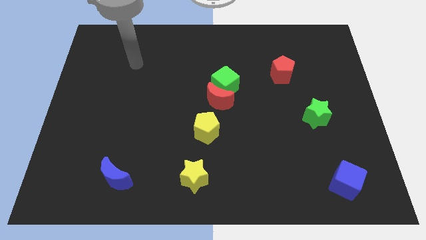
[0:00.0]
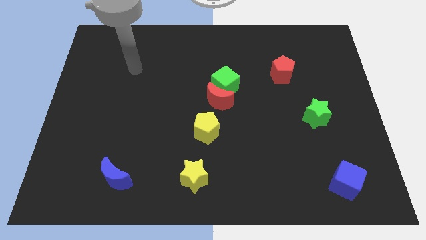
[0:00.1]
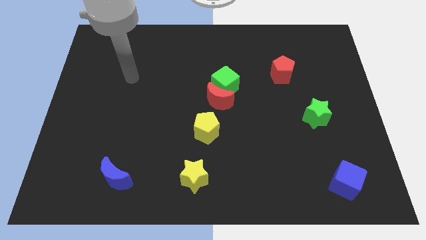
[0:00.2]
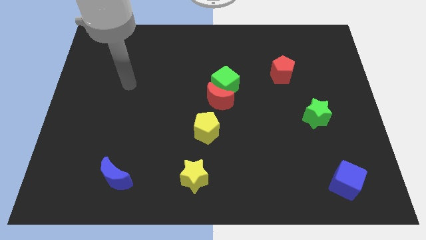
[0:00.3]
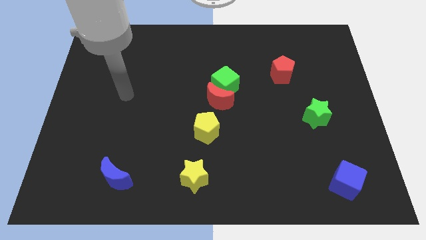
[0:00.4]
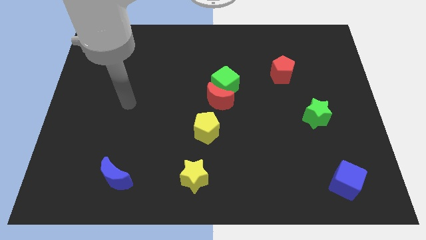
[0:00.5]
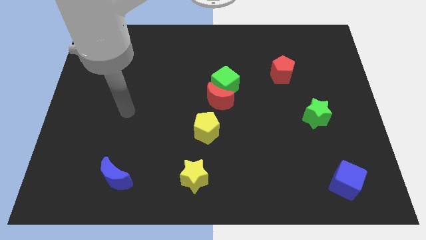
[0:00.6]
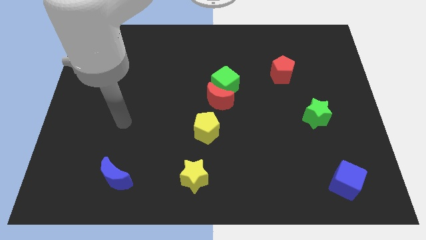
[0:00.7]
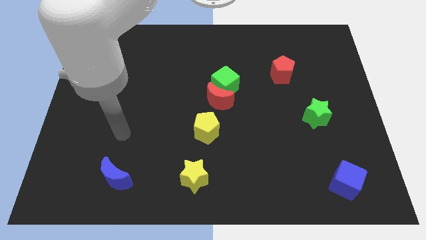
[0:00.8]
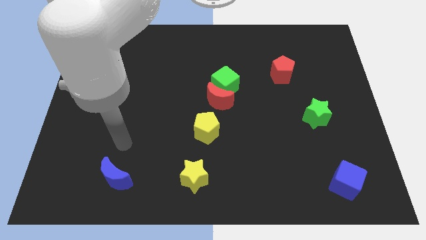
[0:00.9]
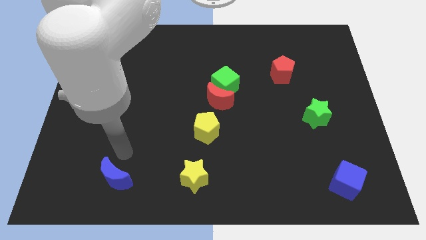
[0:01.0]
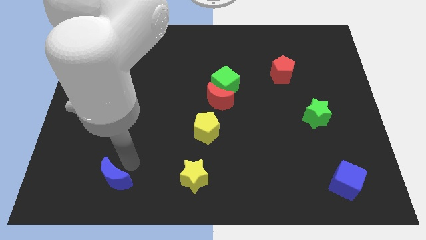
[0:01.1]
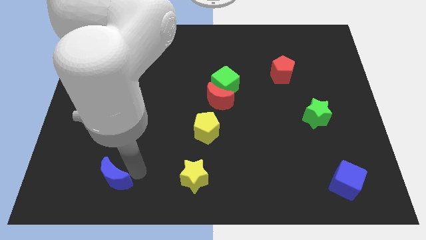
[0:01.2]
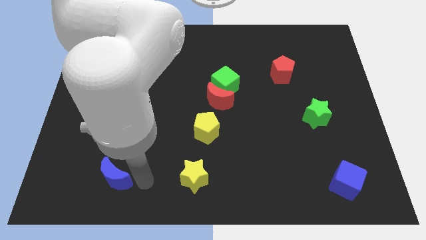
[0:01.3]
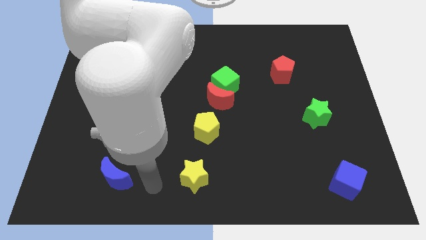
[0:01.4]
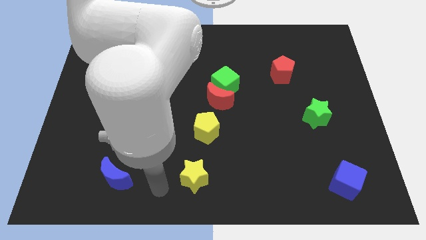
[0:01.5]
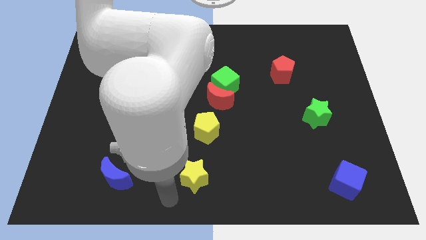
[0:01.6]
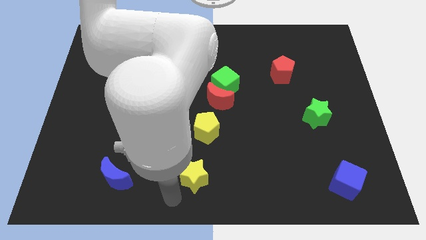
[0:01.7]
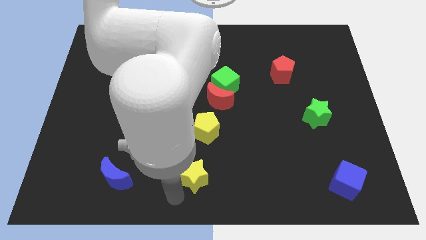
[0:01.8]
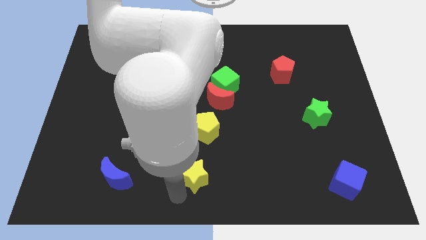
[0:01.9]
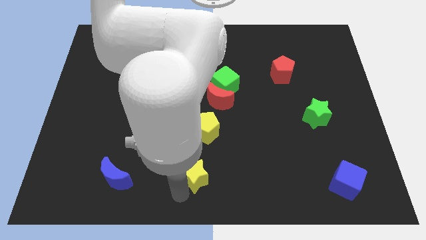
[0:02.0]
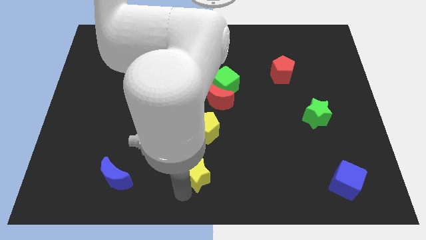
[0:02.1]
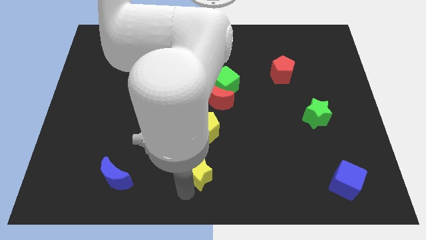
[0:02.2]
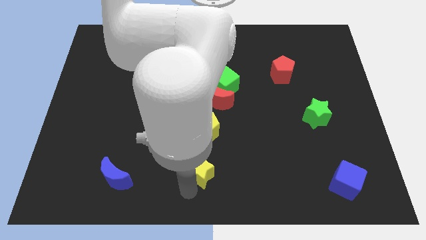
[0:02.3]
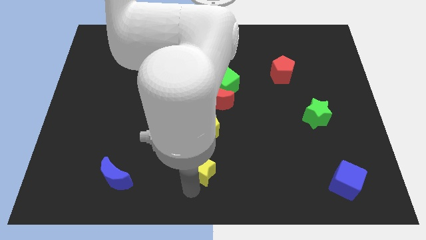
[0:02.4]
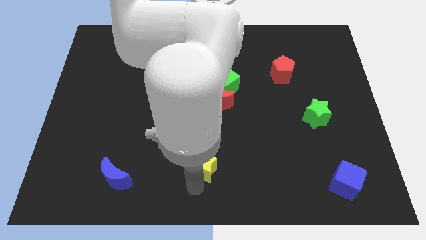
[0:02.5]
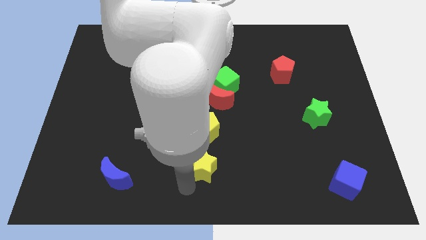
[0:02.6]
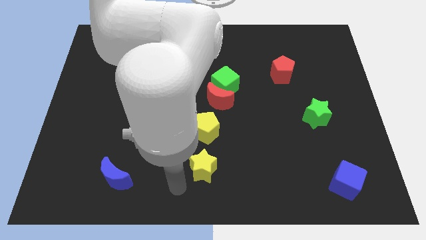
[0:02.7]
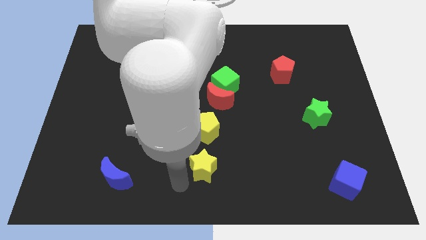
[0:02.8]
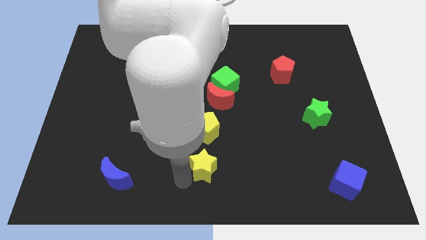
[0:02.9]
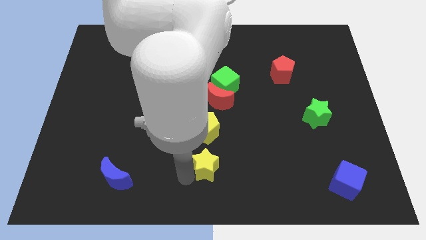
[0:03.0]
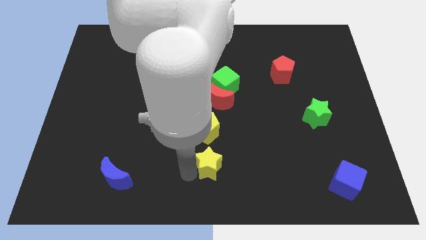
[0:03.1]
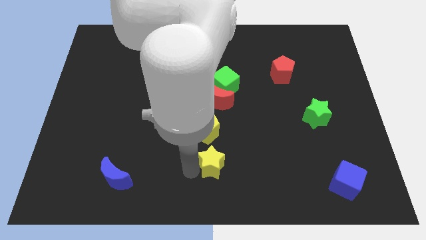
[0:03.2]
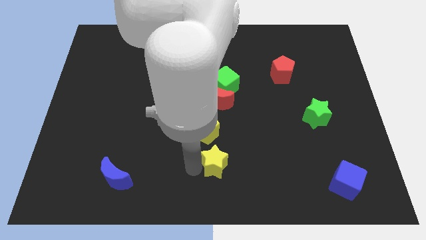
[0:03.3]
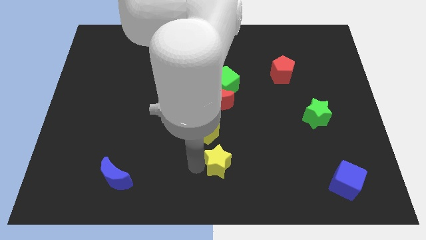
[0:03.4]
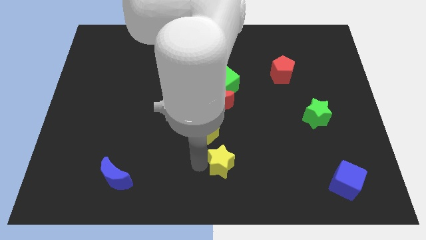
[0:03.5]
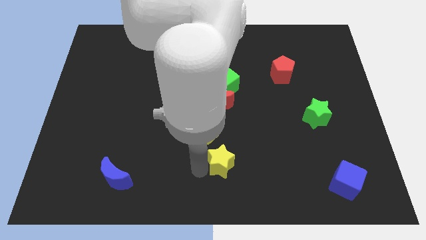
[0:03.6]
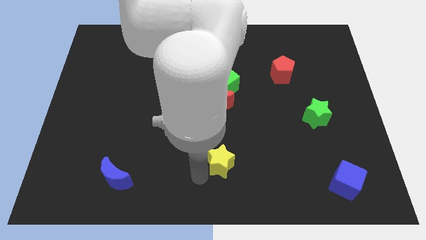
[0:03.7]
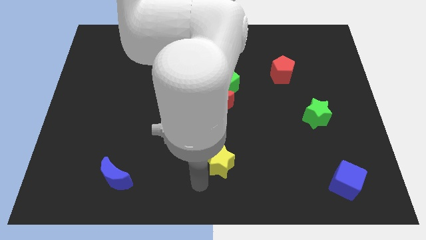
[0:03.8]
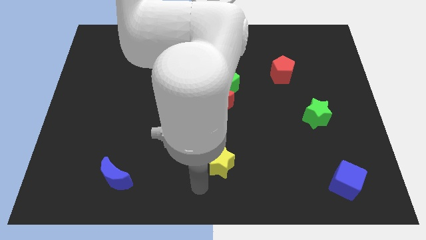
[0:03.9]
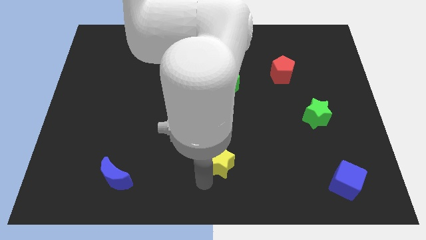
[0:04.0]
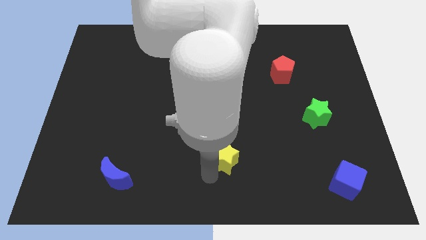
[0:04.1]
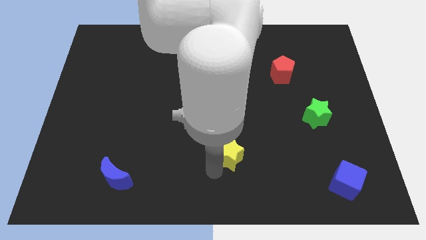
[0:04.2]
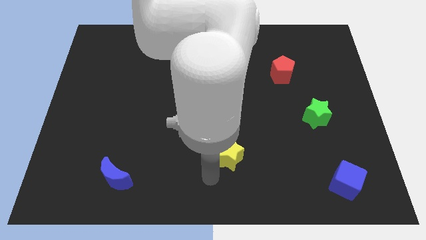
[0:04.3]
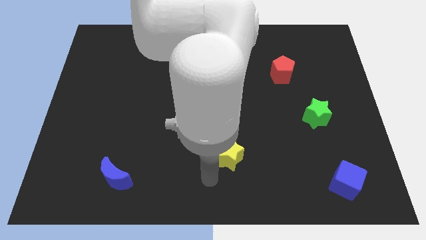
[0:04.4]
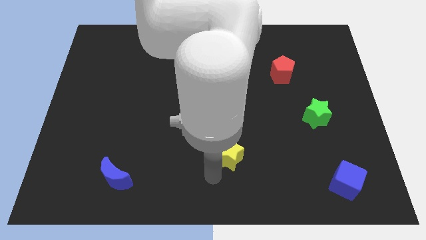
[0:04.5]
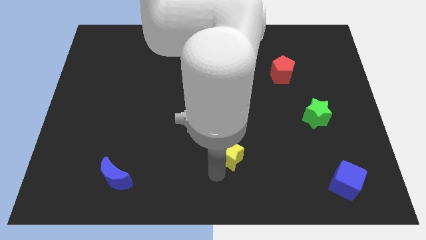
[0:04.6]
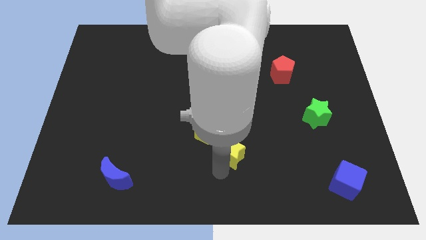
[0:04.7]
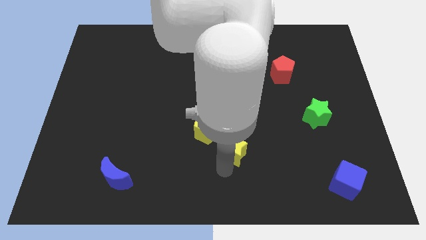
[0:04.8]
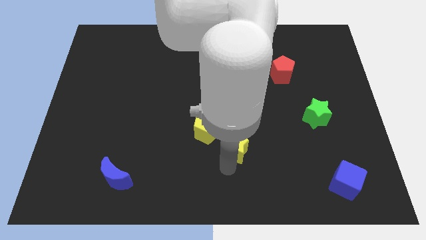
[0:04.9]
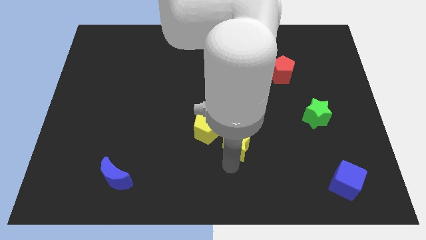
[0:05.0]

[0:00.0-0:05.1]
push the yellow star just right of the yellow pentagon

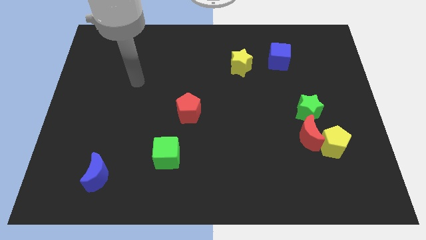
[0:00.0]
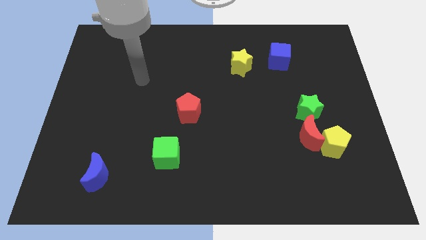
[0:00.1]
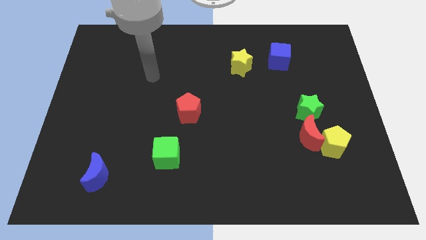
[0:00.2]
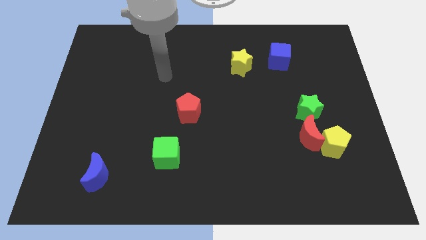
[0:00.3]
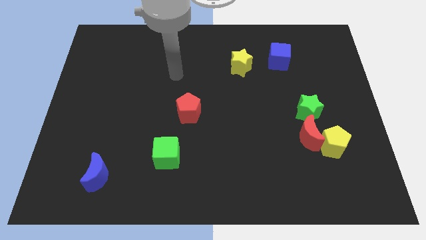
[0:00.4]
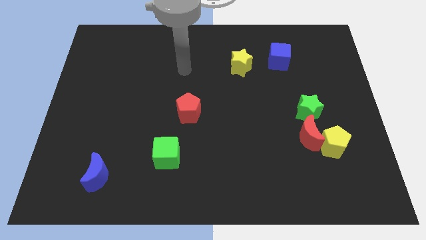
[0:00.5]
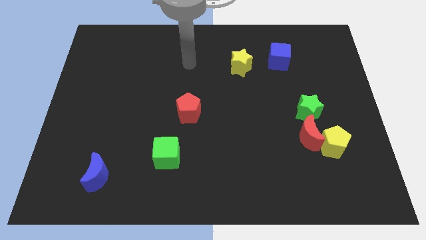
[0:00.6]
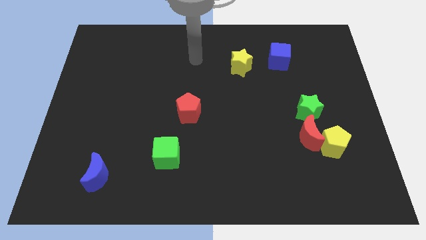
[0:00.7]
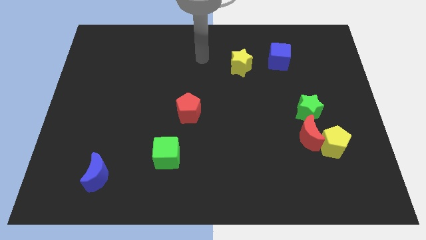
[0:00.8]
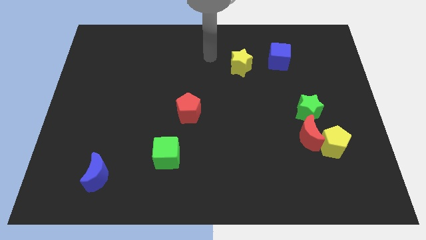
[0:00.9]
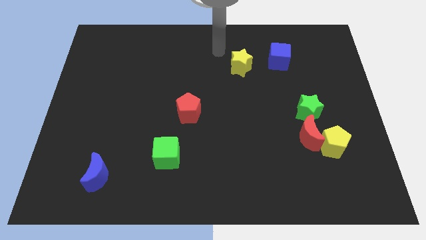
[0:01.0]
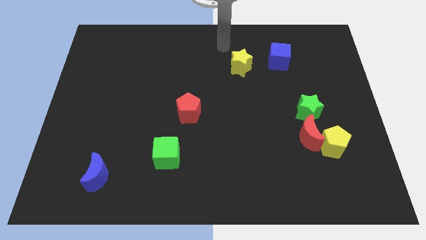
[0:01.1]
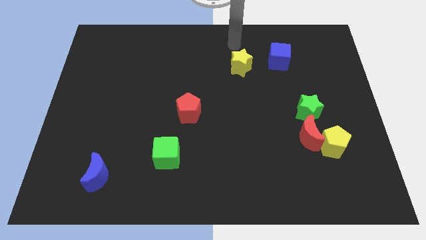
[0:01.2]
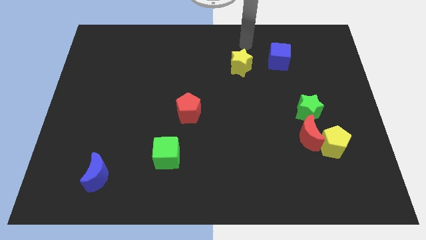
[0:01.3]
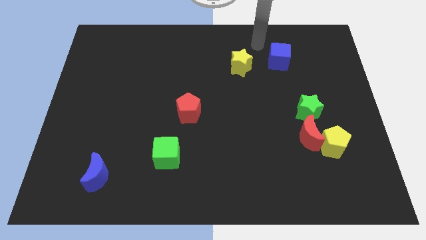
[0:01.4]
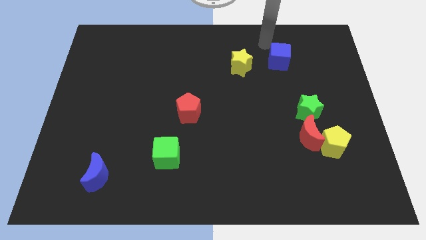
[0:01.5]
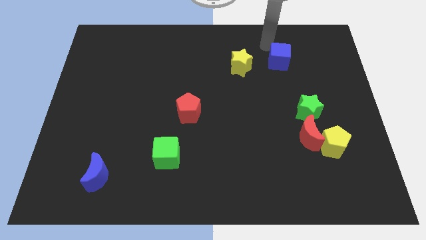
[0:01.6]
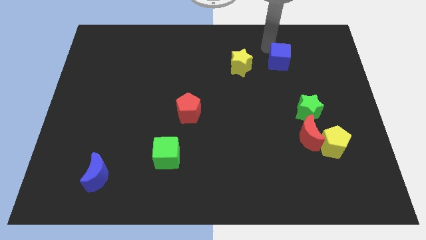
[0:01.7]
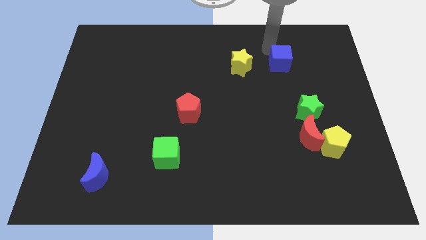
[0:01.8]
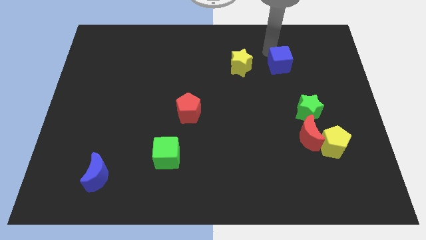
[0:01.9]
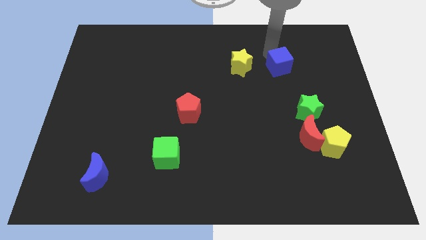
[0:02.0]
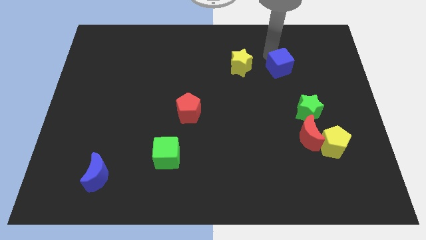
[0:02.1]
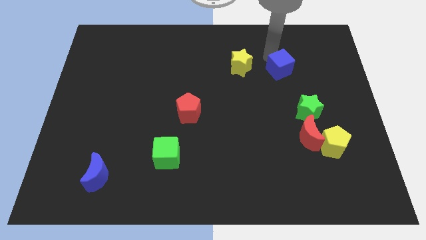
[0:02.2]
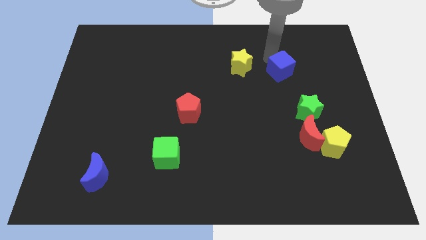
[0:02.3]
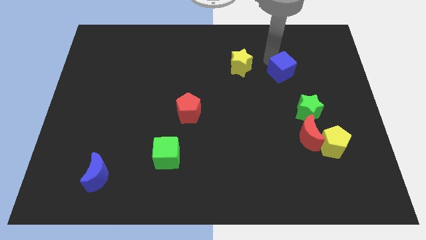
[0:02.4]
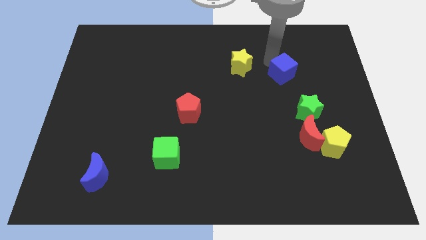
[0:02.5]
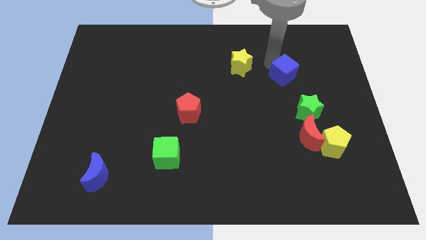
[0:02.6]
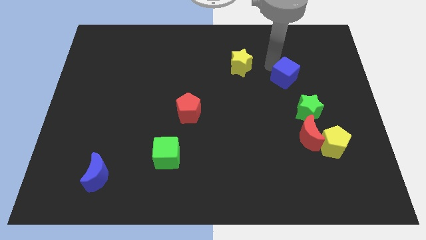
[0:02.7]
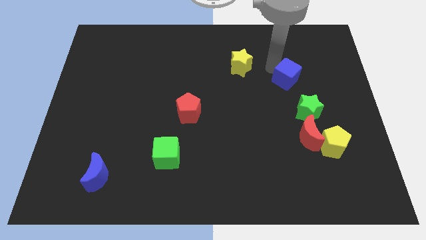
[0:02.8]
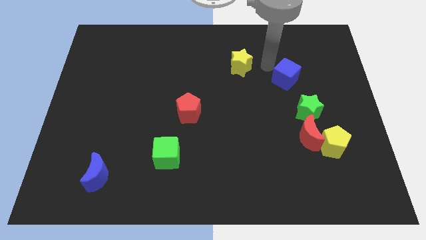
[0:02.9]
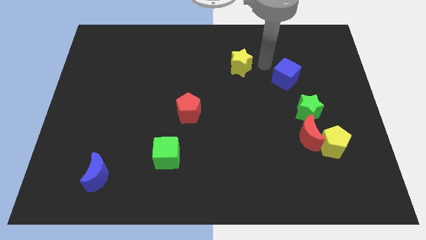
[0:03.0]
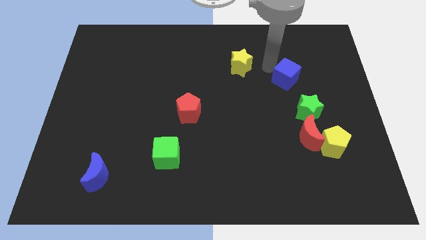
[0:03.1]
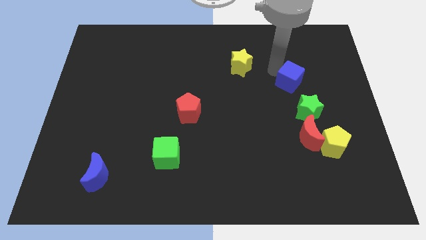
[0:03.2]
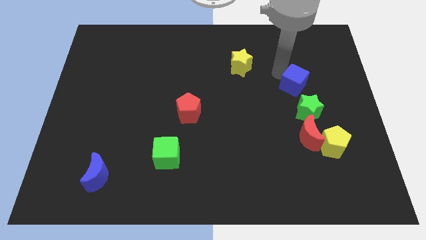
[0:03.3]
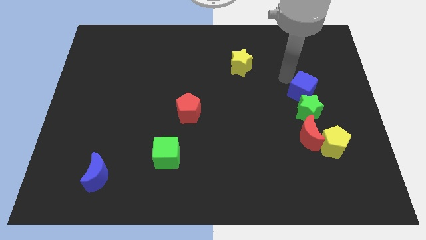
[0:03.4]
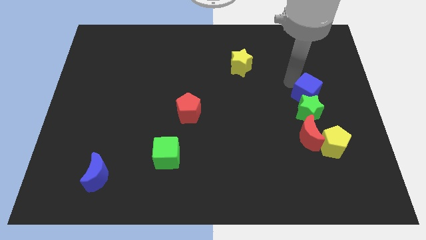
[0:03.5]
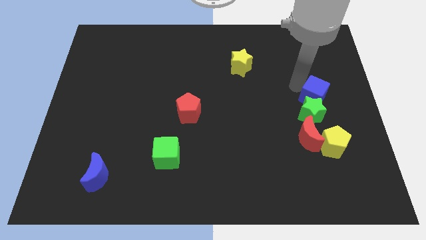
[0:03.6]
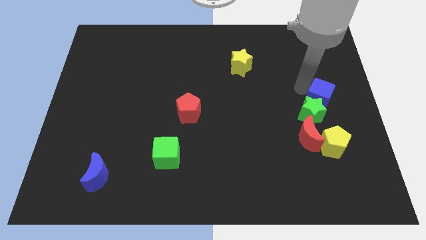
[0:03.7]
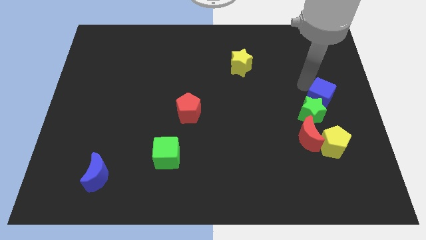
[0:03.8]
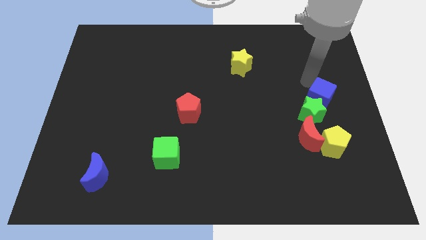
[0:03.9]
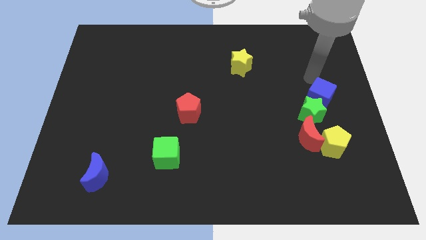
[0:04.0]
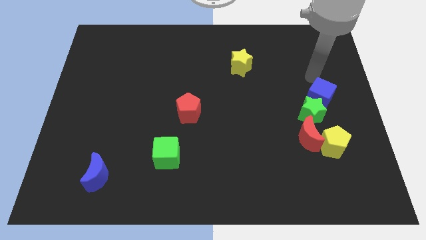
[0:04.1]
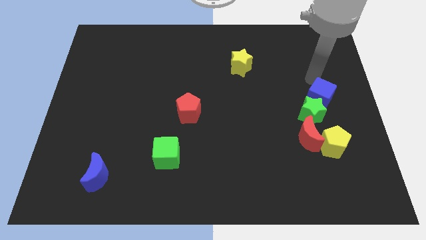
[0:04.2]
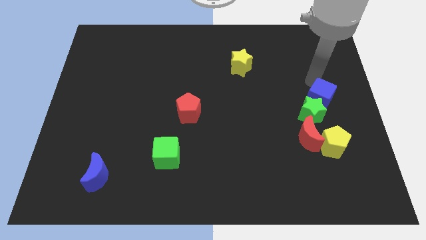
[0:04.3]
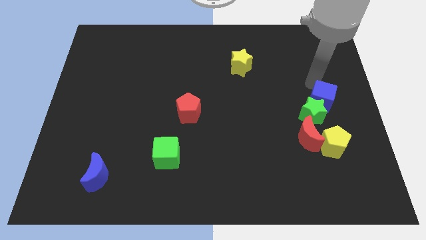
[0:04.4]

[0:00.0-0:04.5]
slide the blue cube to the top right of the red moon
